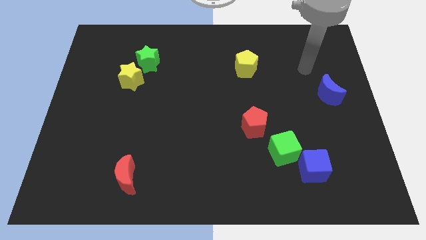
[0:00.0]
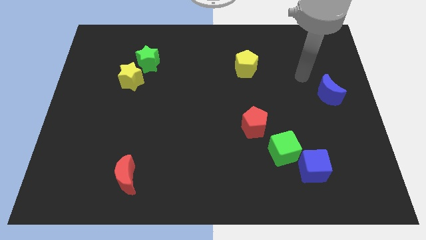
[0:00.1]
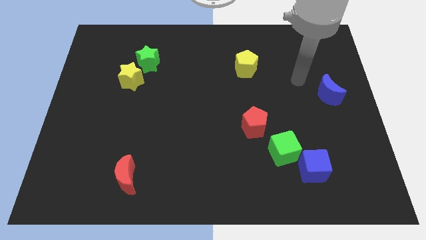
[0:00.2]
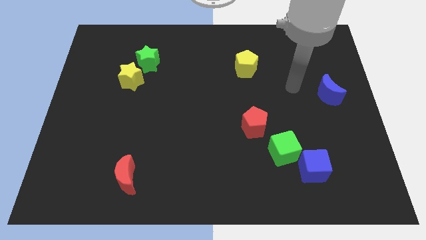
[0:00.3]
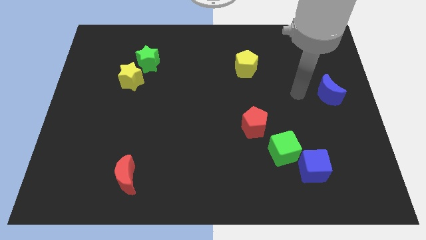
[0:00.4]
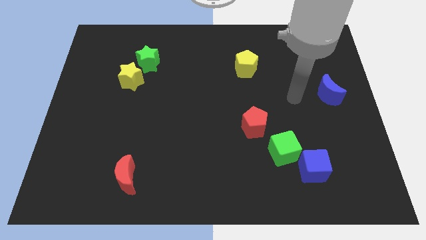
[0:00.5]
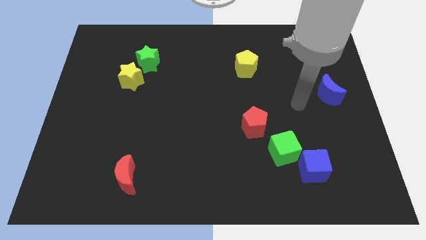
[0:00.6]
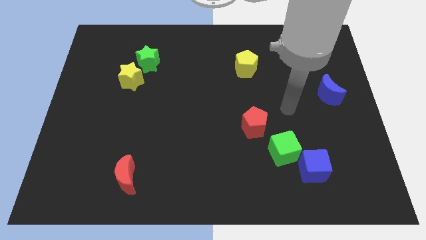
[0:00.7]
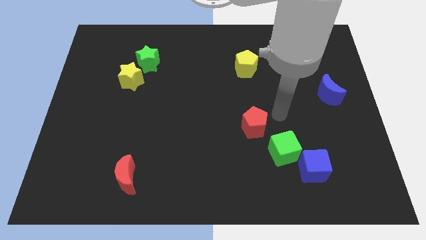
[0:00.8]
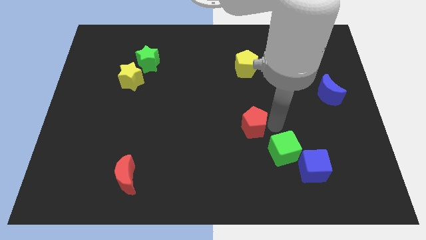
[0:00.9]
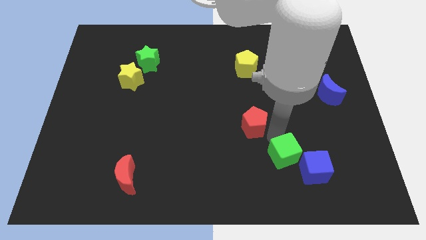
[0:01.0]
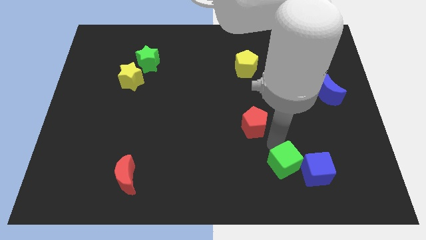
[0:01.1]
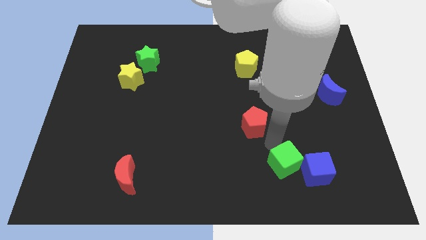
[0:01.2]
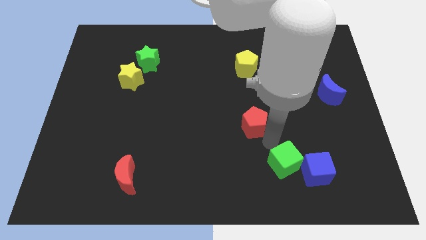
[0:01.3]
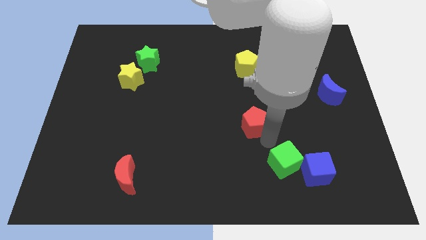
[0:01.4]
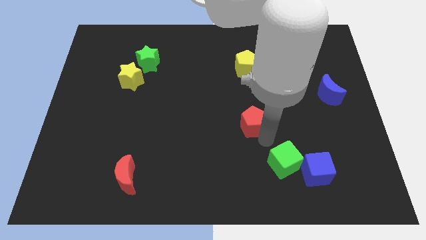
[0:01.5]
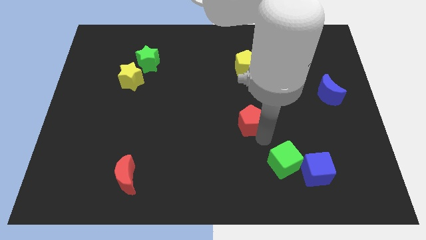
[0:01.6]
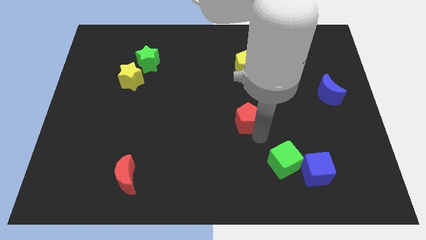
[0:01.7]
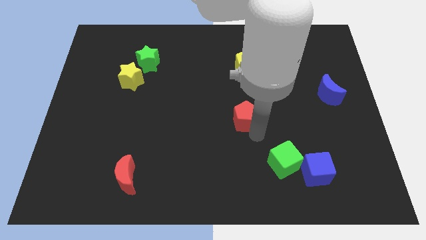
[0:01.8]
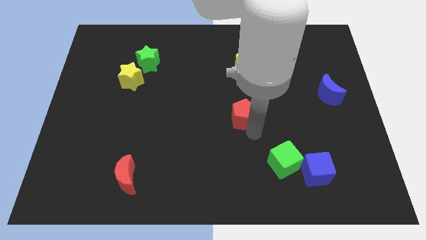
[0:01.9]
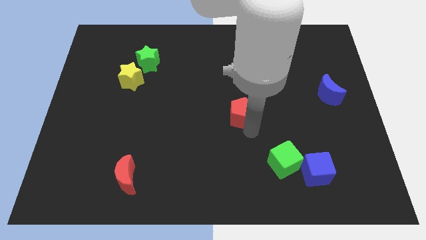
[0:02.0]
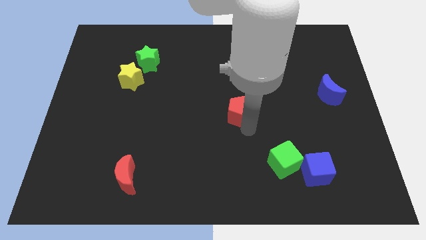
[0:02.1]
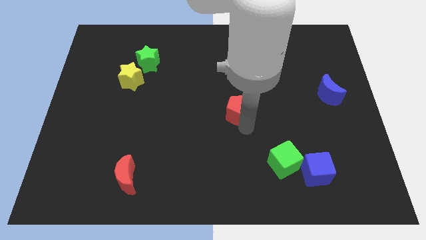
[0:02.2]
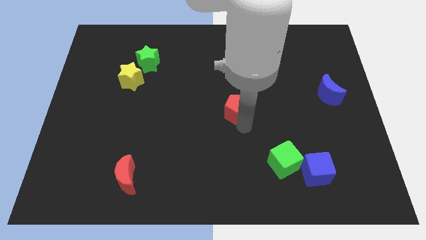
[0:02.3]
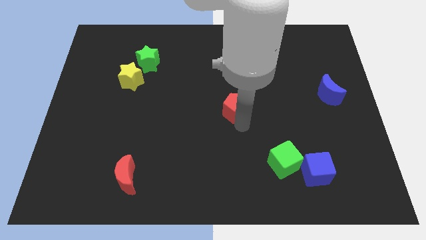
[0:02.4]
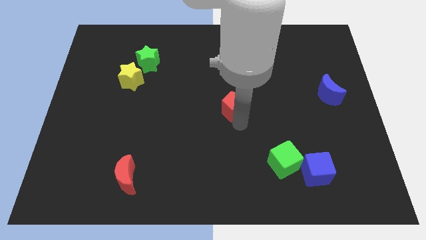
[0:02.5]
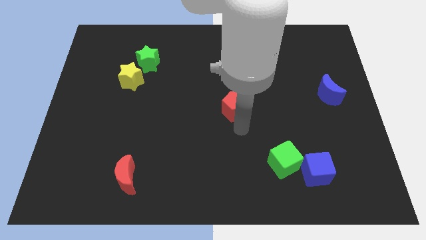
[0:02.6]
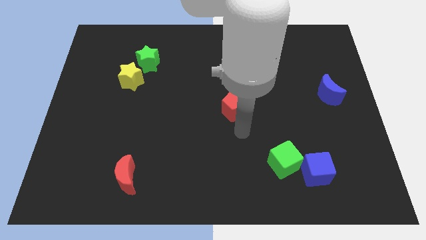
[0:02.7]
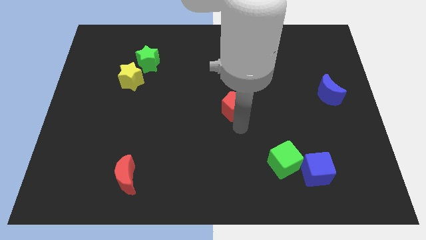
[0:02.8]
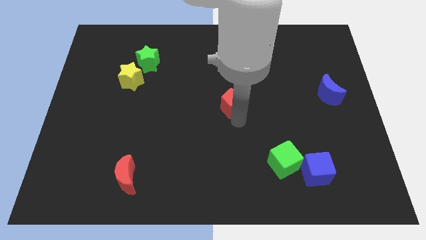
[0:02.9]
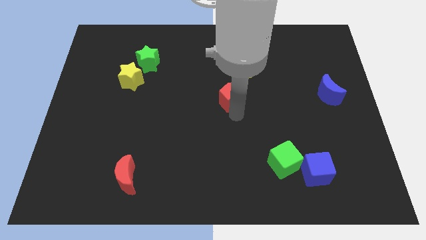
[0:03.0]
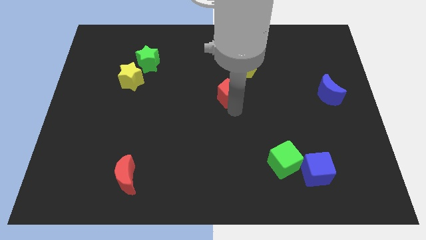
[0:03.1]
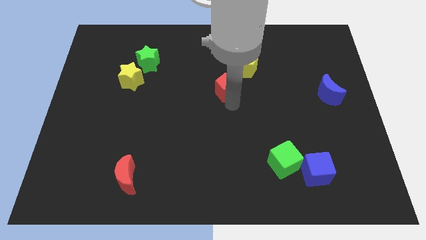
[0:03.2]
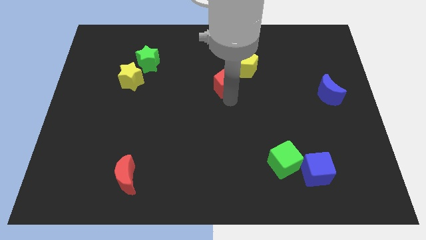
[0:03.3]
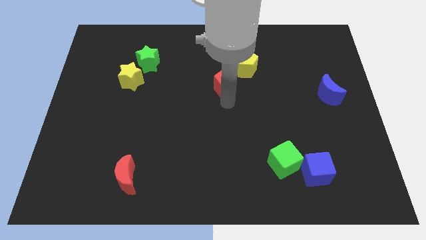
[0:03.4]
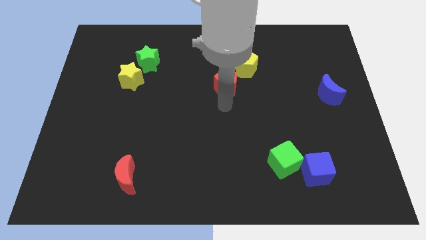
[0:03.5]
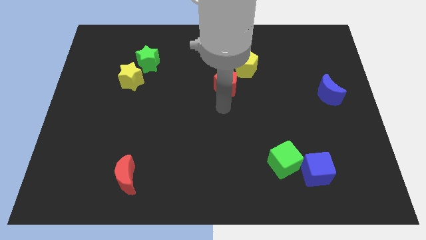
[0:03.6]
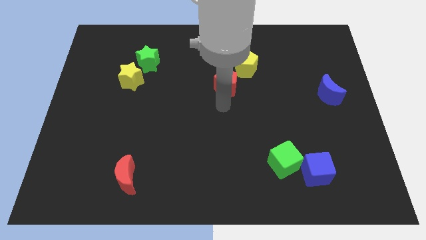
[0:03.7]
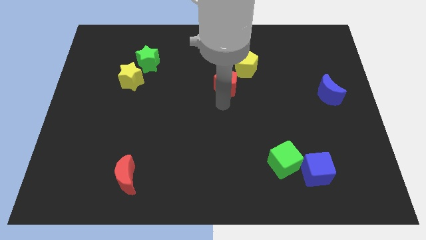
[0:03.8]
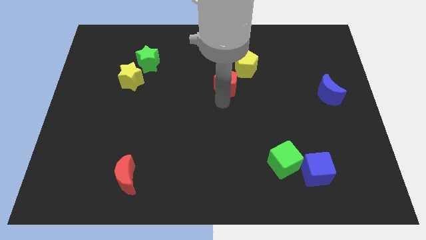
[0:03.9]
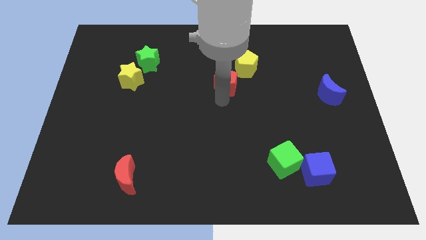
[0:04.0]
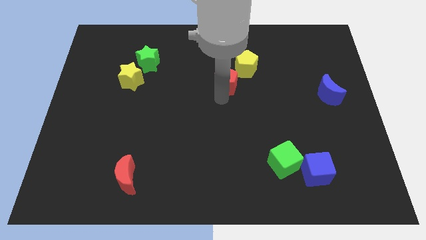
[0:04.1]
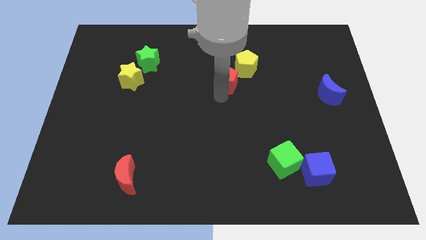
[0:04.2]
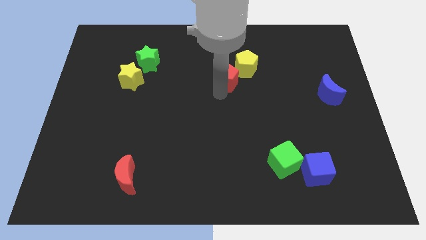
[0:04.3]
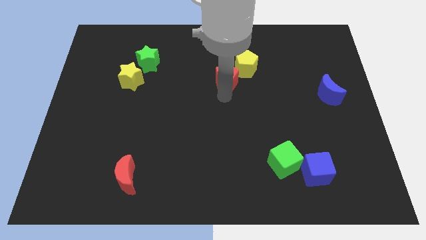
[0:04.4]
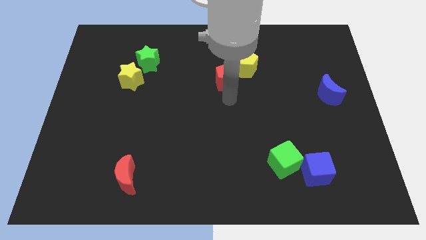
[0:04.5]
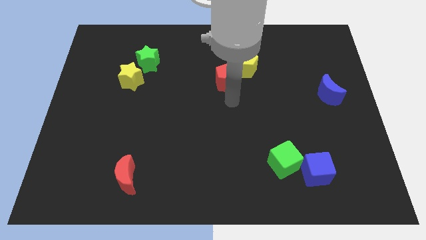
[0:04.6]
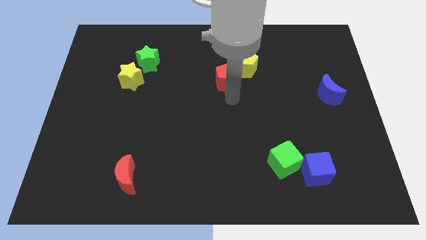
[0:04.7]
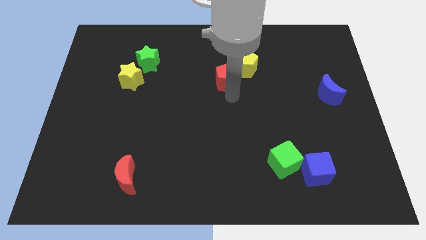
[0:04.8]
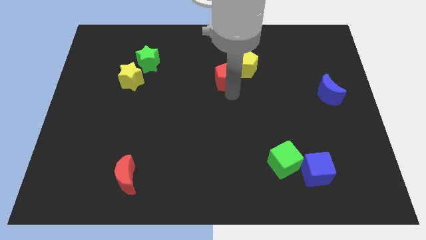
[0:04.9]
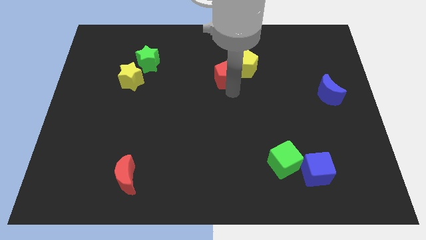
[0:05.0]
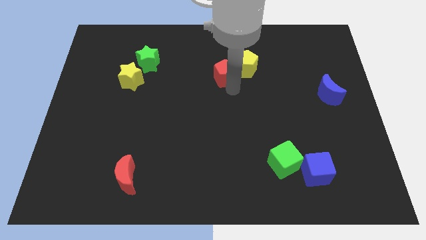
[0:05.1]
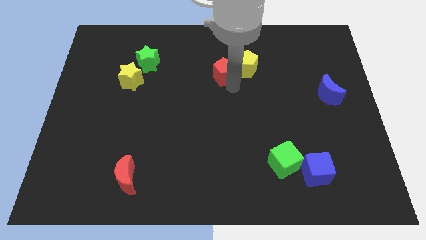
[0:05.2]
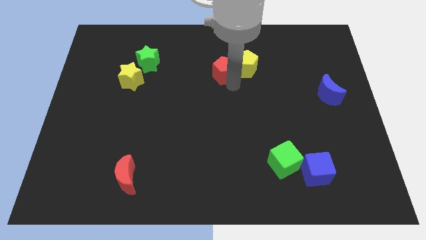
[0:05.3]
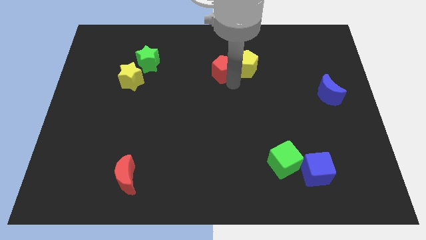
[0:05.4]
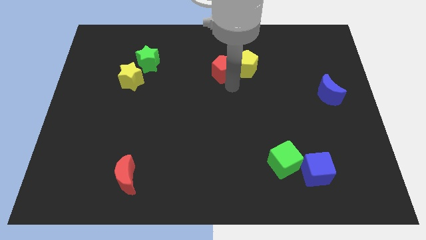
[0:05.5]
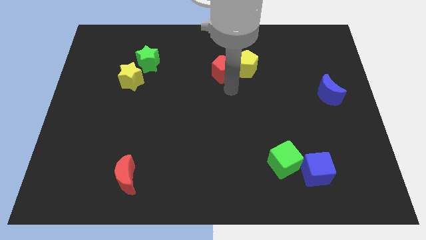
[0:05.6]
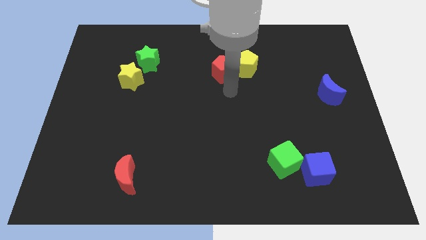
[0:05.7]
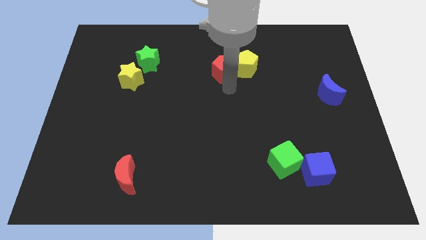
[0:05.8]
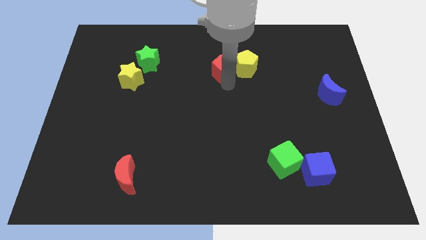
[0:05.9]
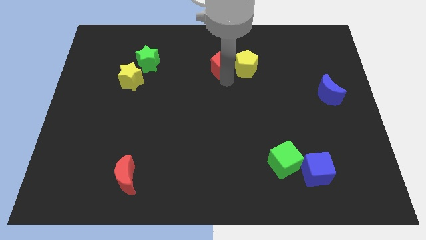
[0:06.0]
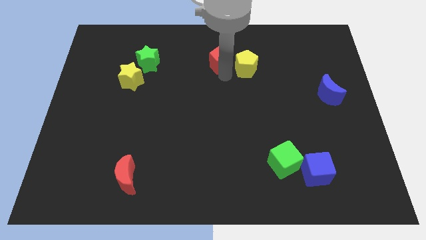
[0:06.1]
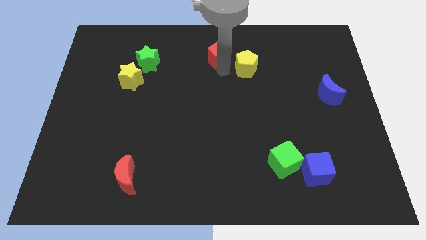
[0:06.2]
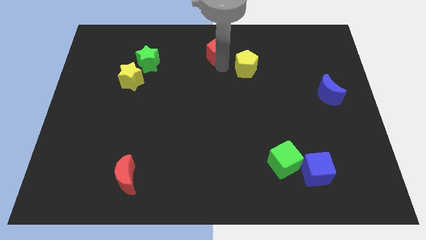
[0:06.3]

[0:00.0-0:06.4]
move the red pentagon to the towards your base
